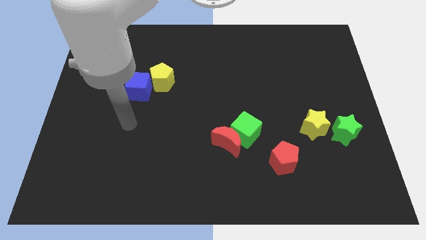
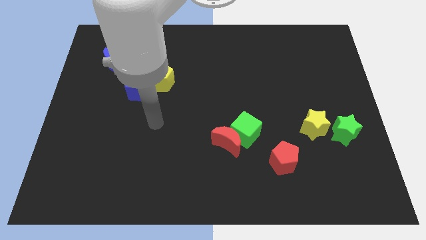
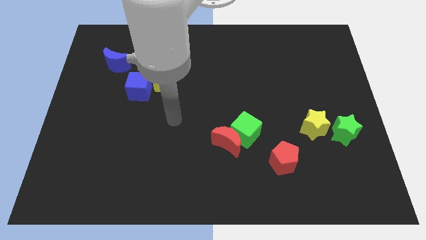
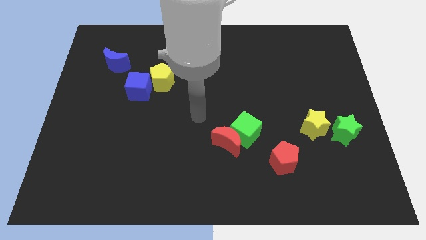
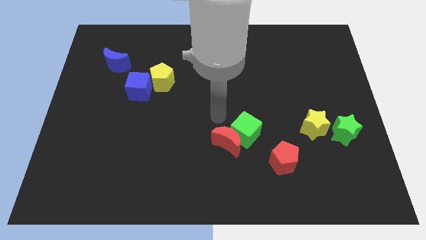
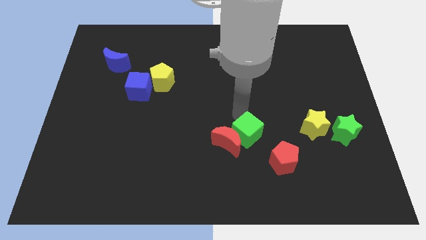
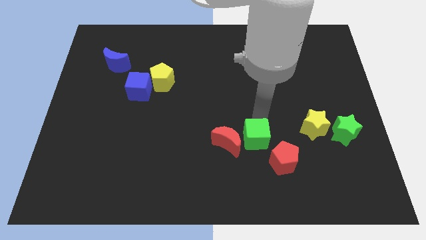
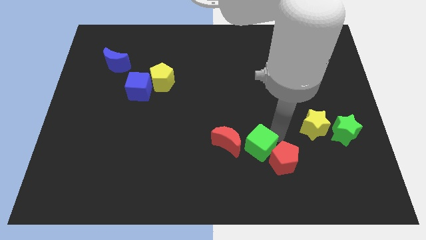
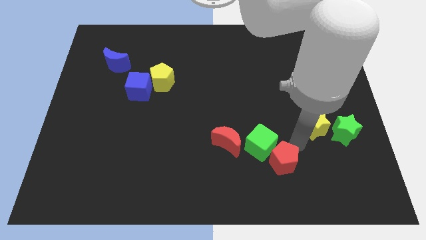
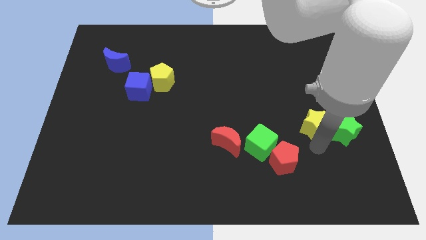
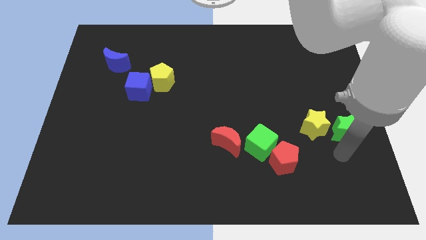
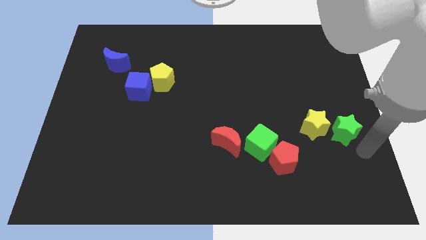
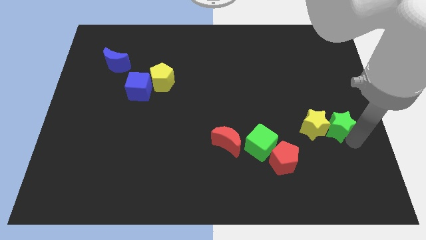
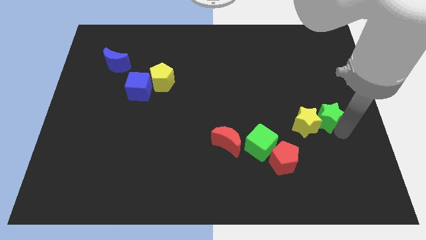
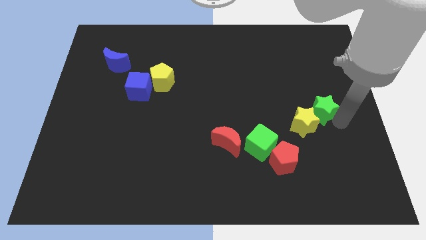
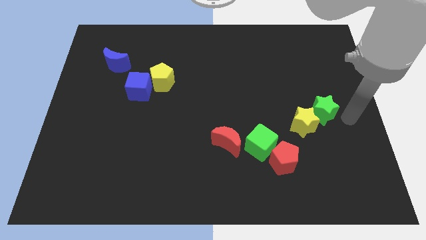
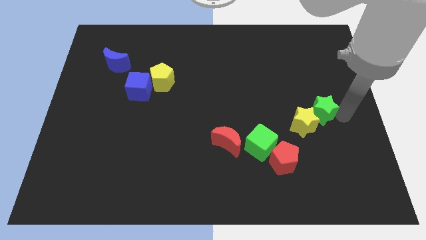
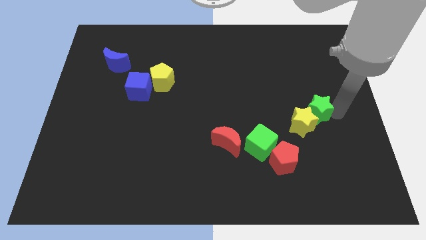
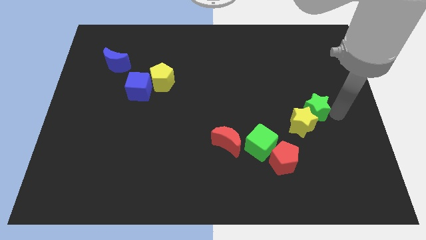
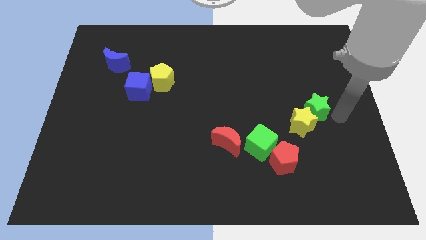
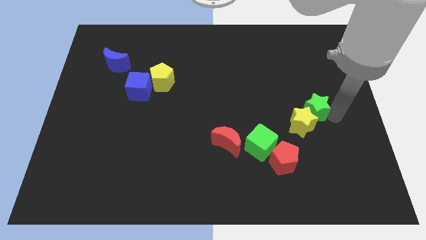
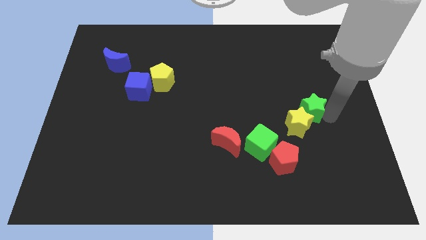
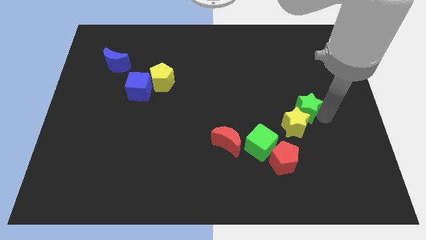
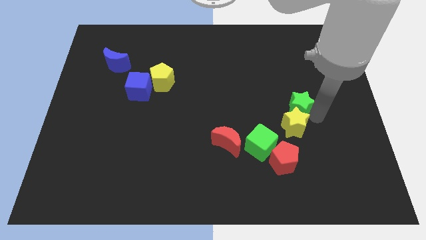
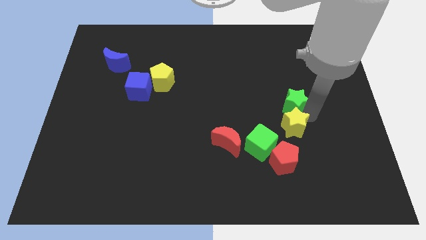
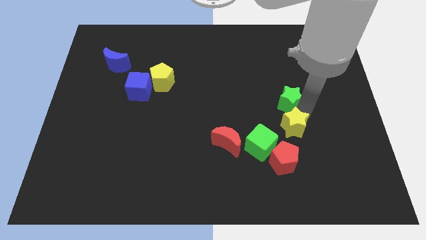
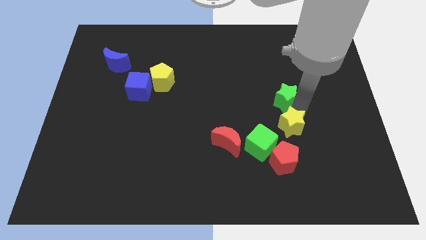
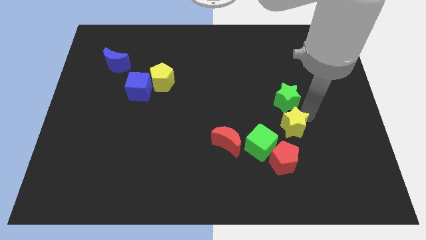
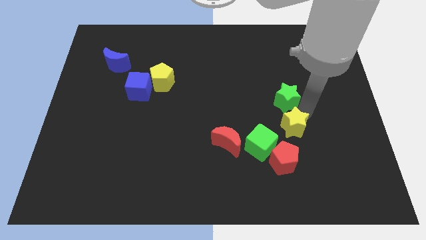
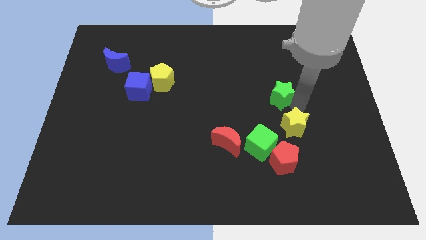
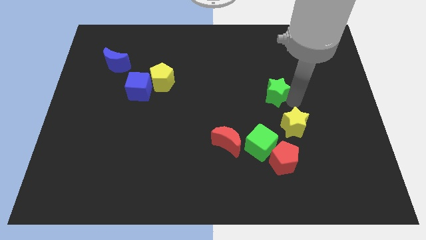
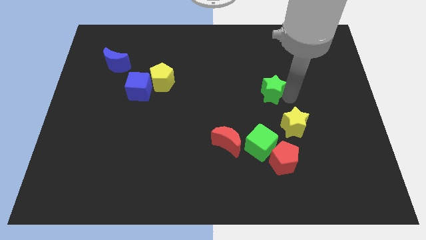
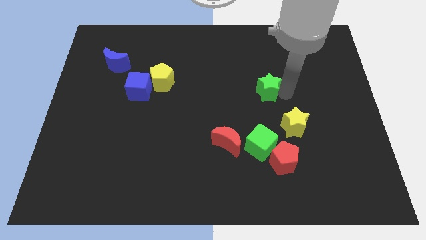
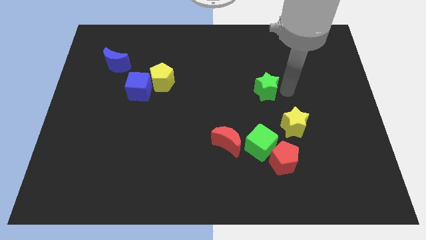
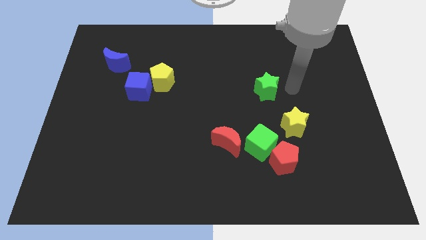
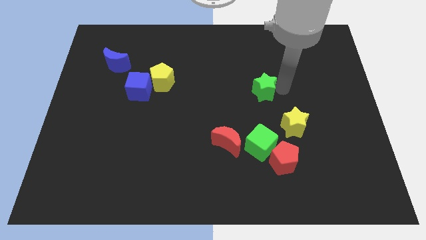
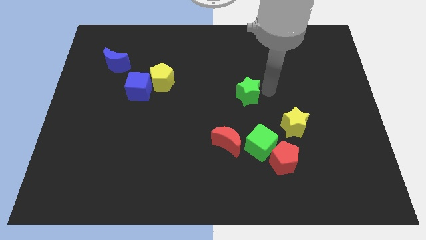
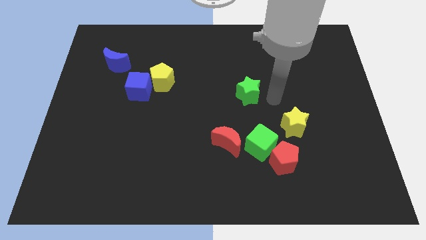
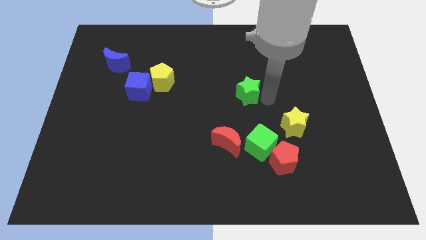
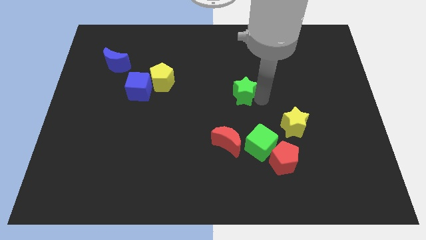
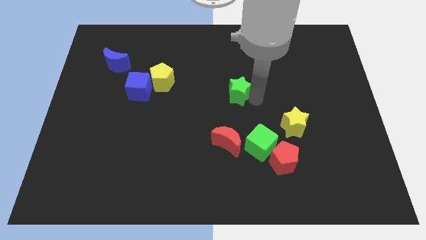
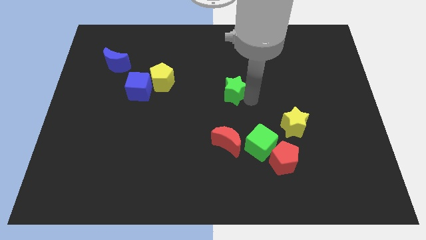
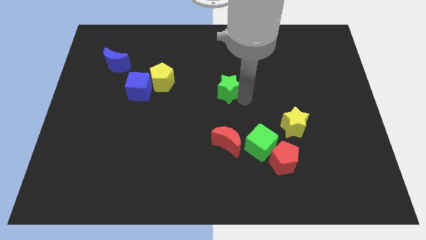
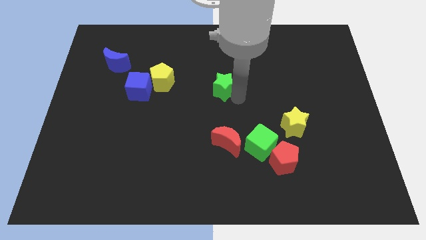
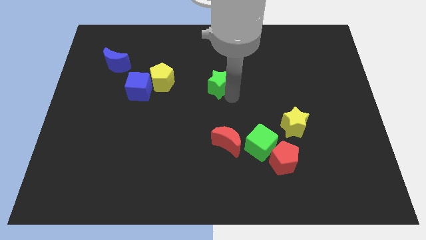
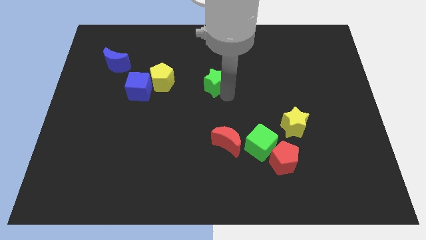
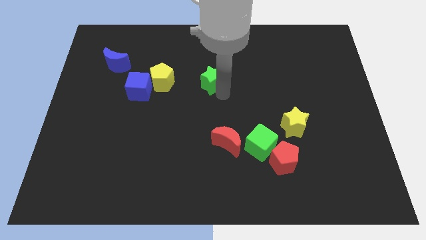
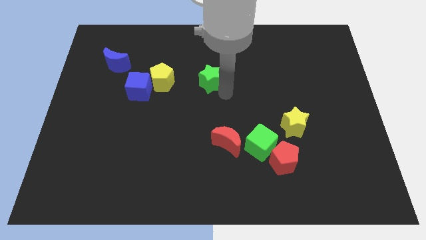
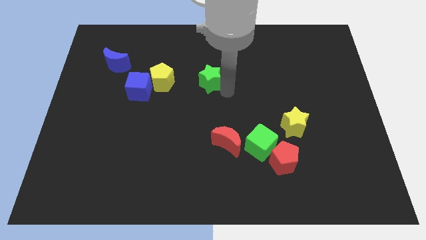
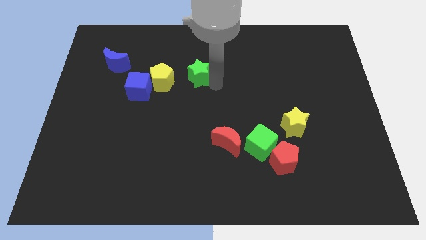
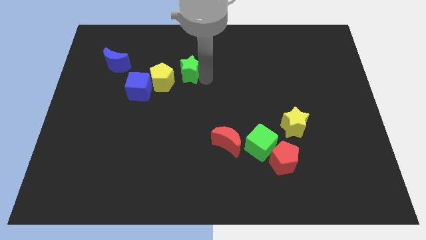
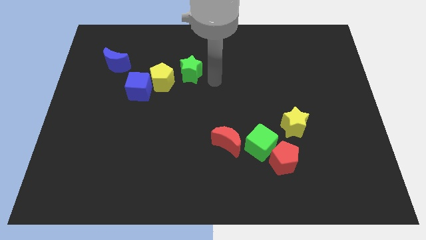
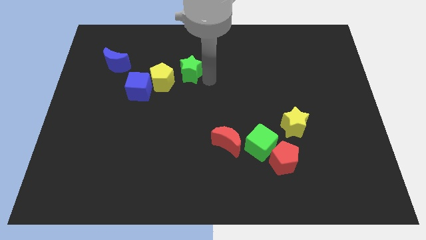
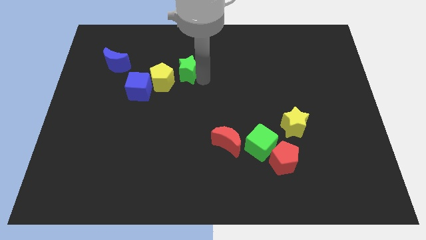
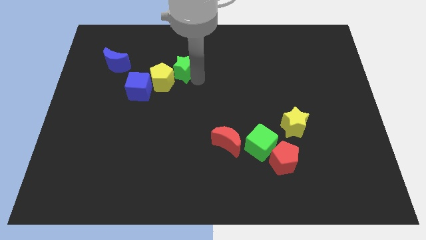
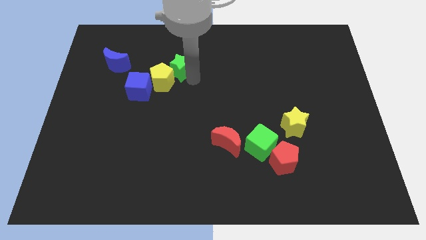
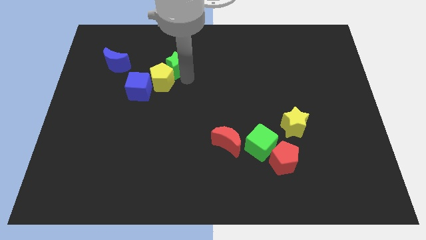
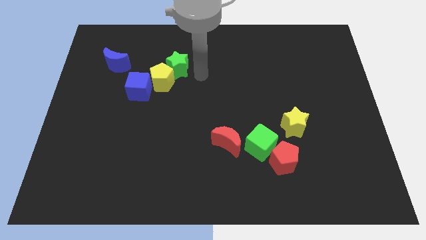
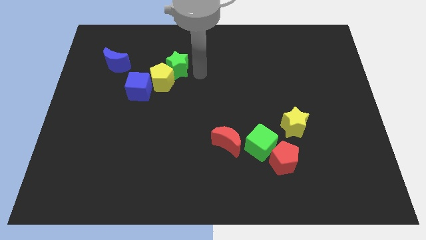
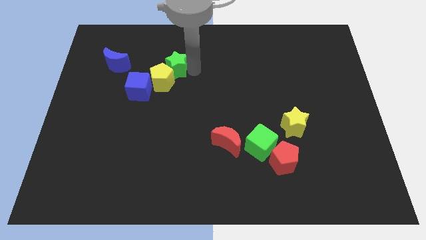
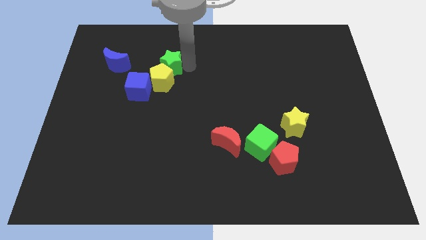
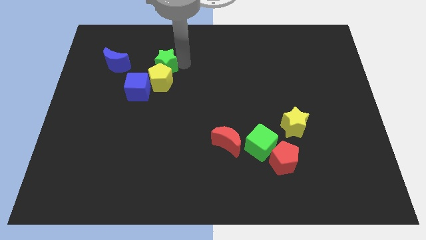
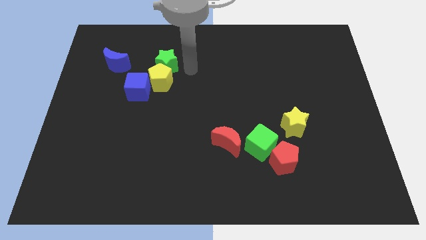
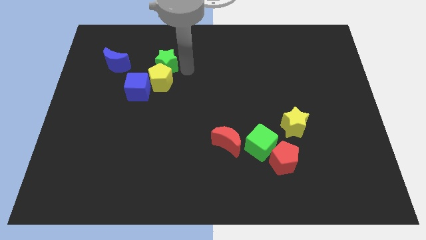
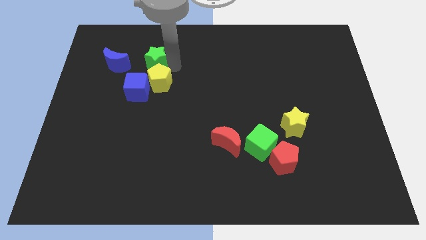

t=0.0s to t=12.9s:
push the green star to the top side of the blue cube
